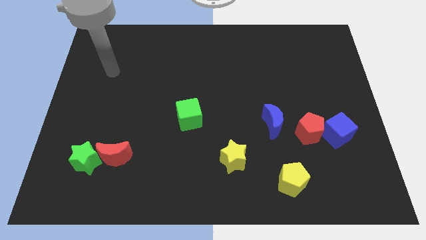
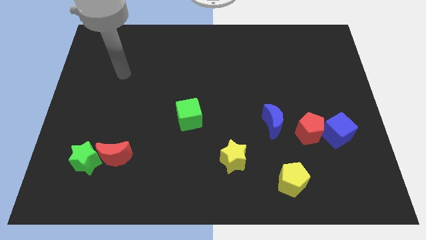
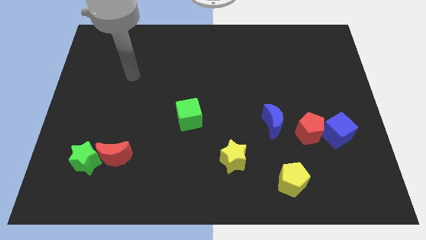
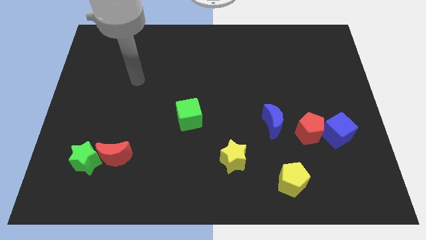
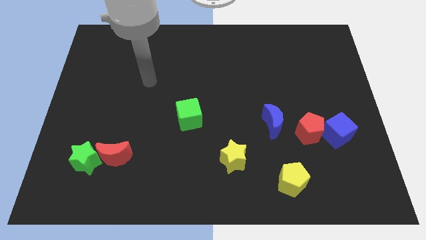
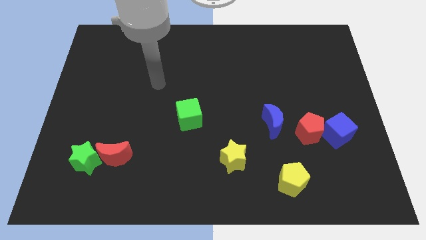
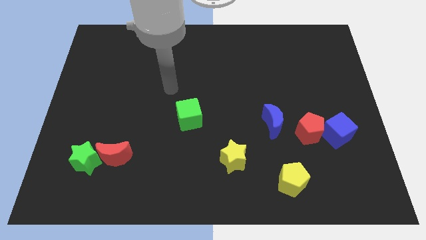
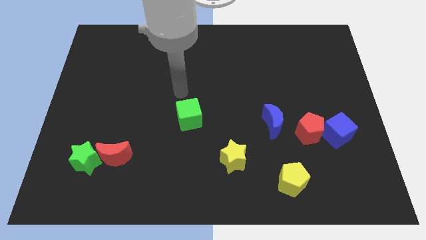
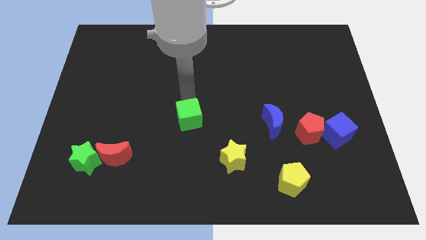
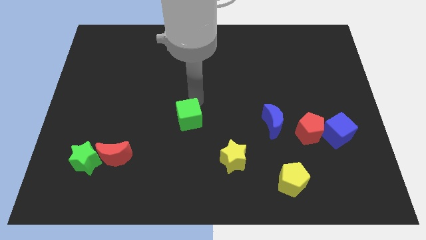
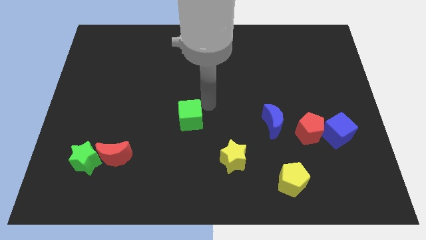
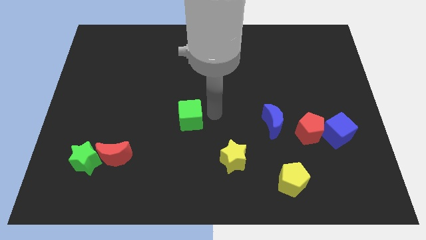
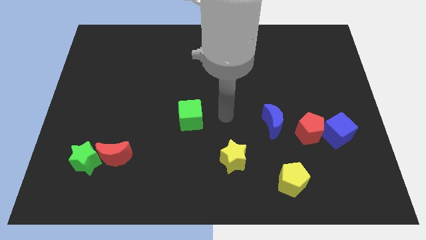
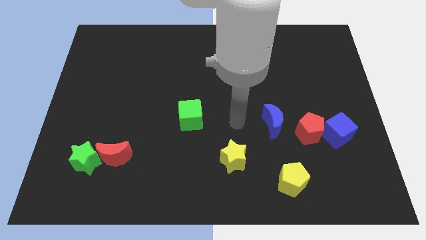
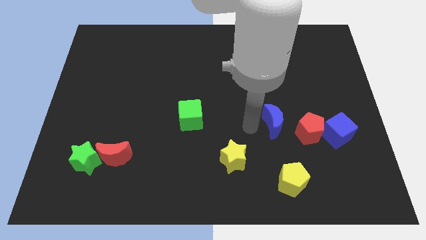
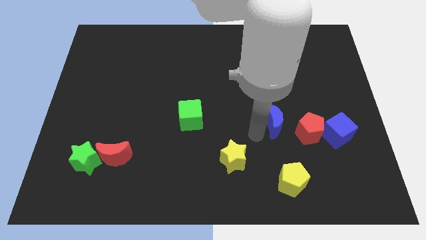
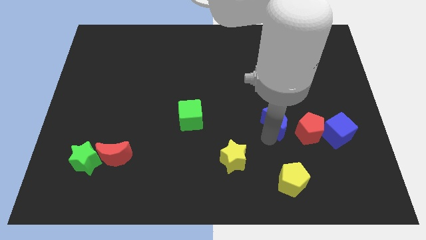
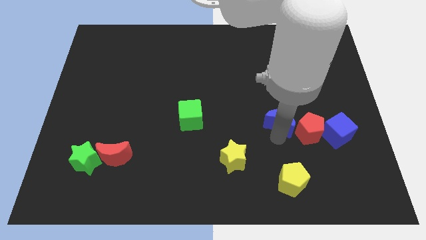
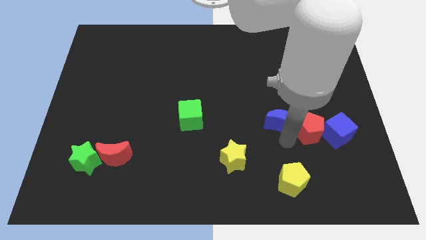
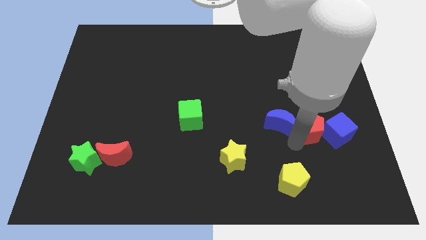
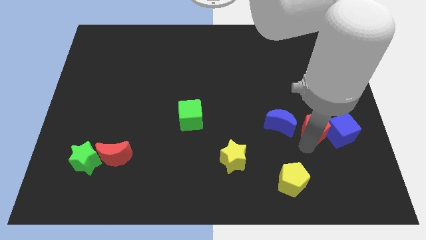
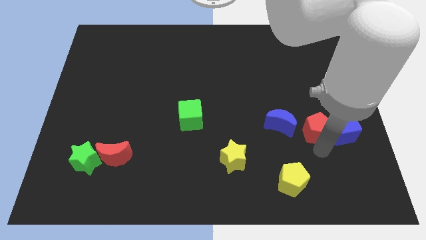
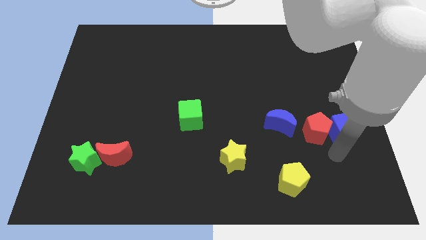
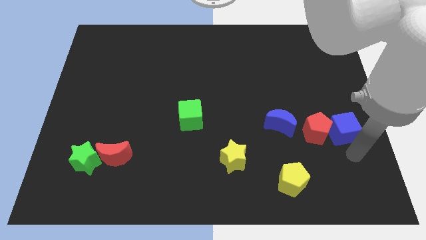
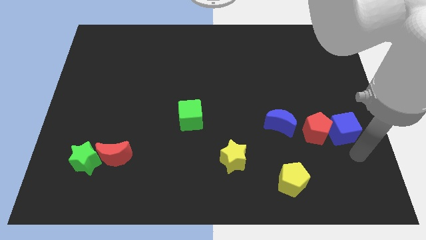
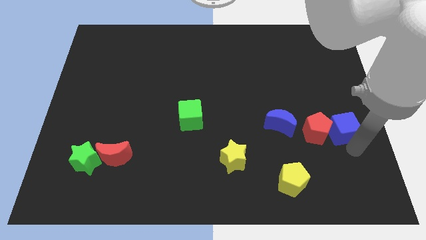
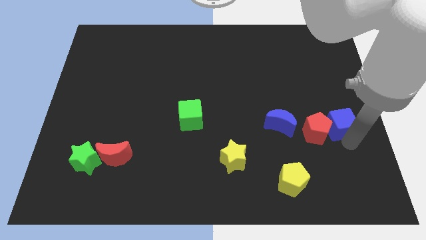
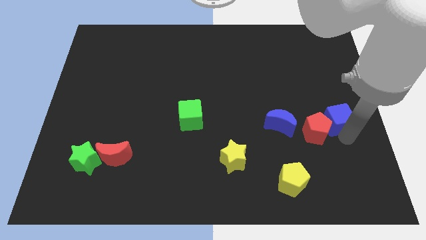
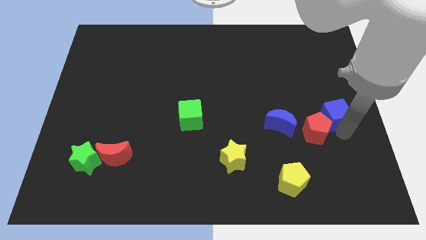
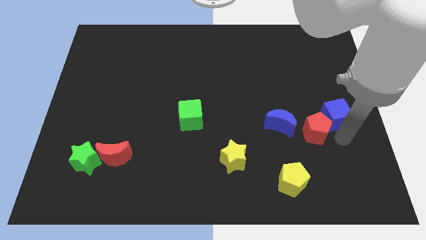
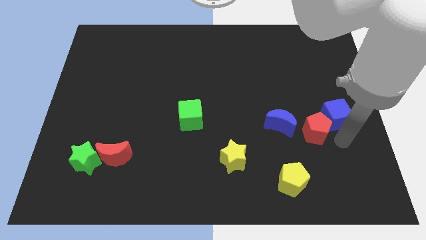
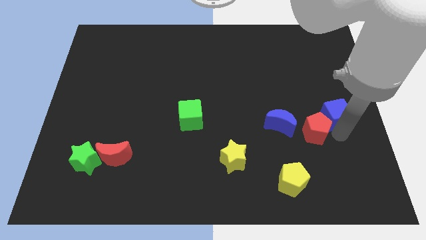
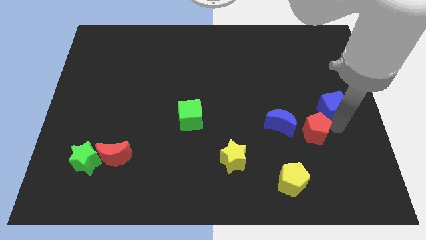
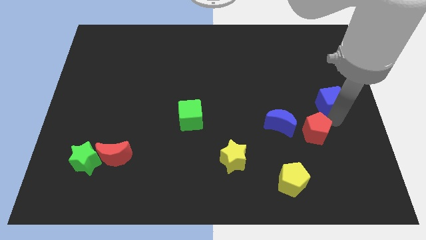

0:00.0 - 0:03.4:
slightly push the blue cube upwards

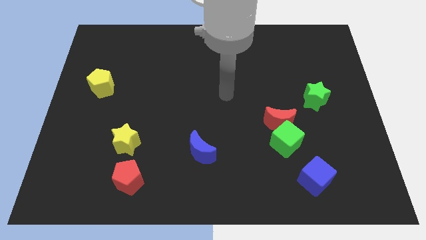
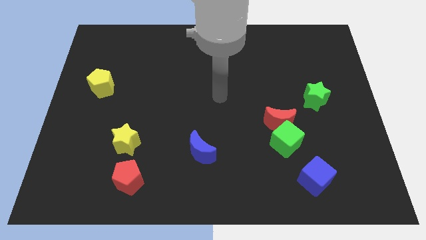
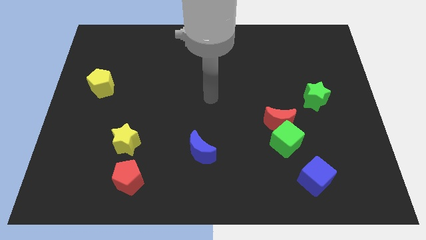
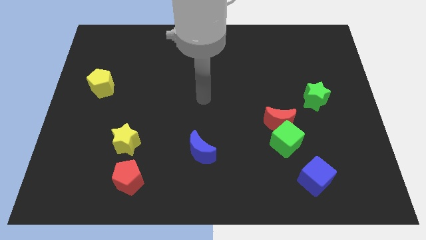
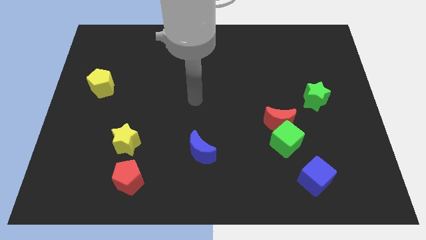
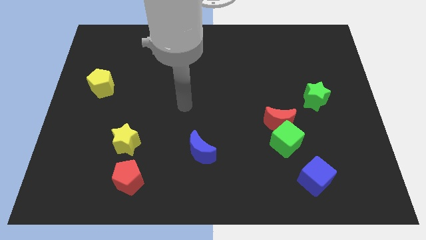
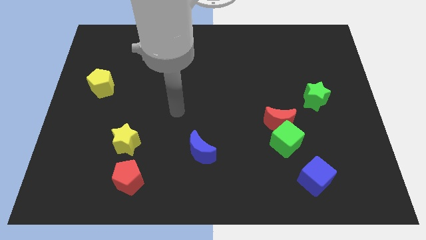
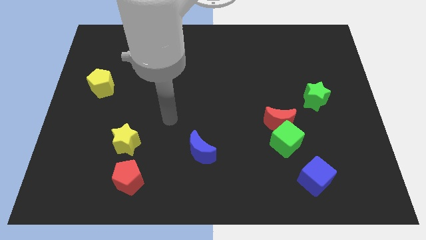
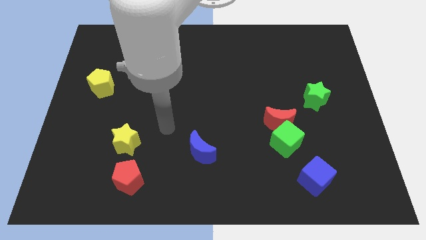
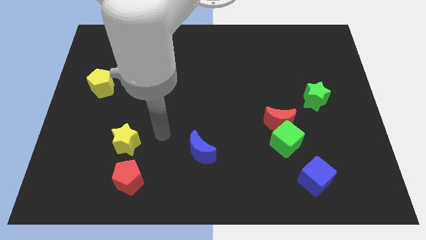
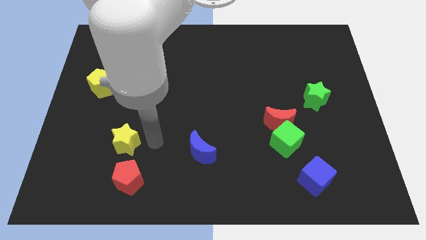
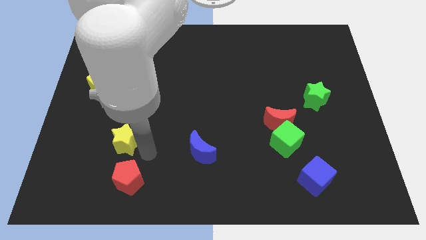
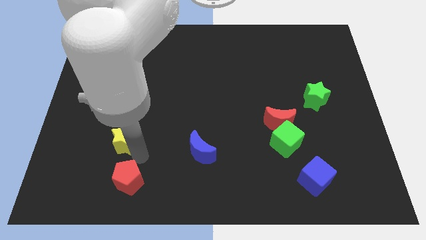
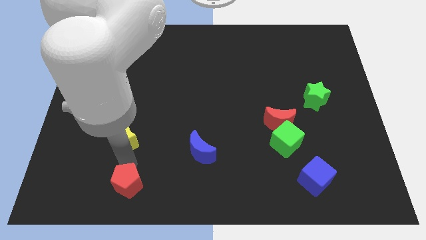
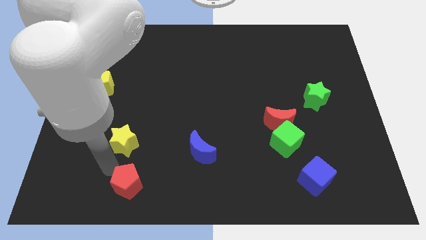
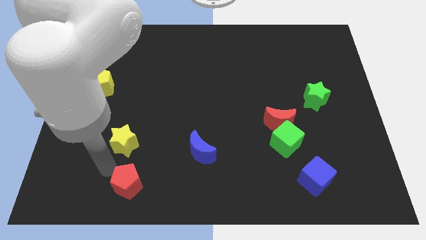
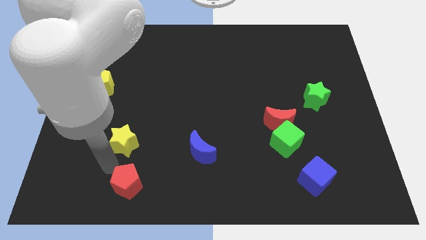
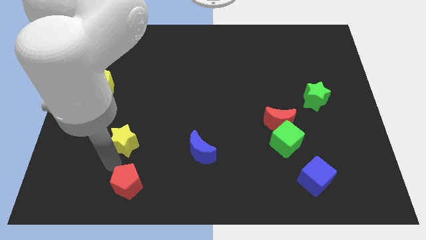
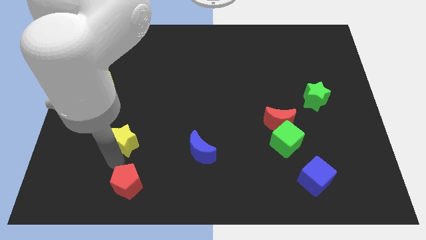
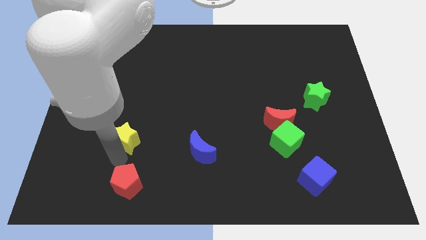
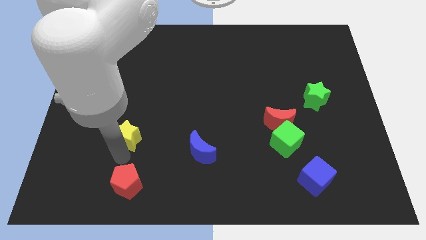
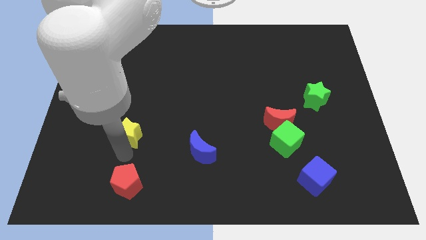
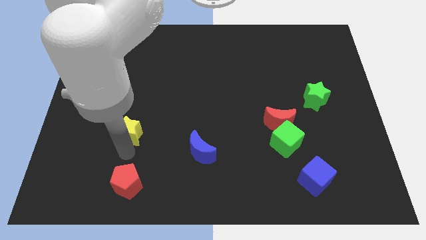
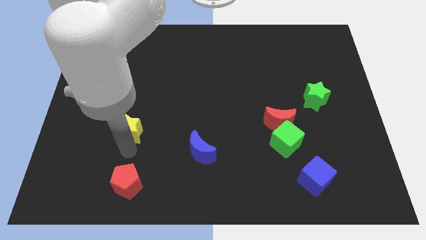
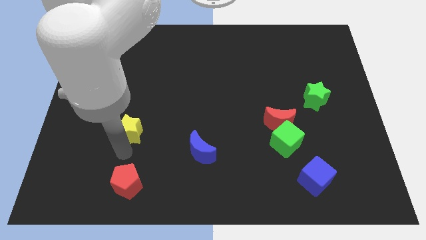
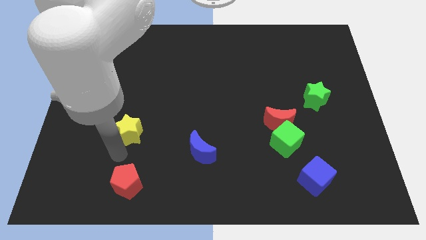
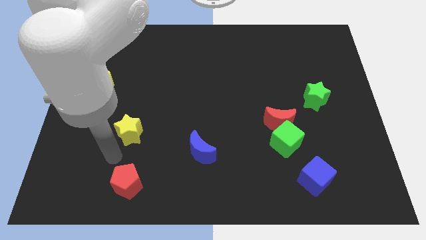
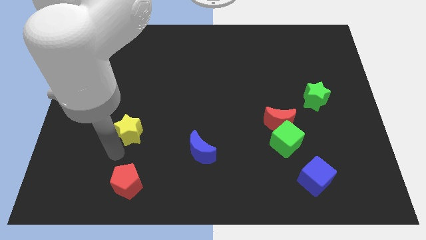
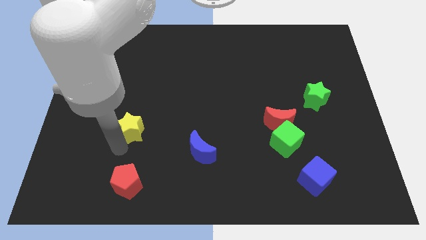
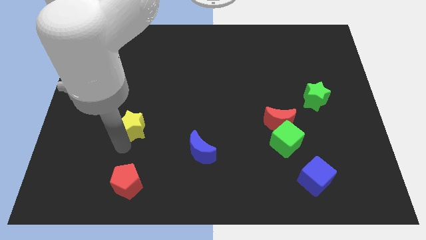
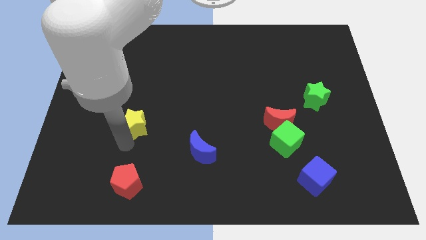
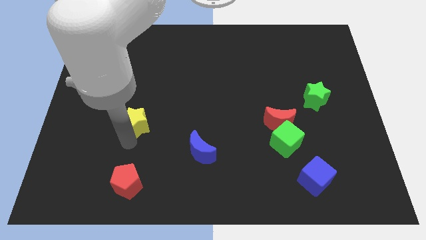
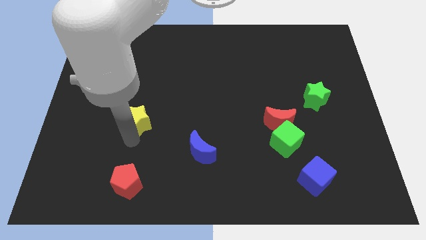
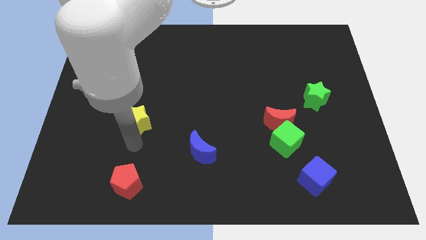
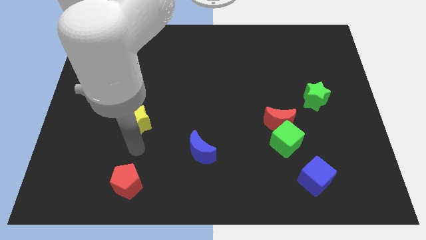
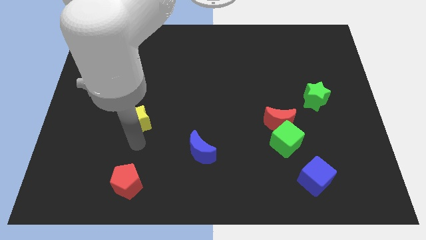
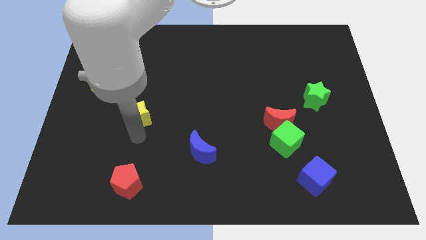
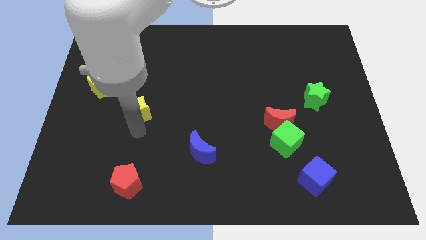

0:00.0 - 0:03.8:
push the yellow star somewhat upwards

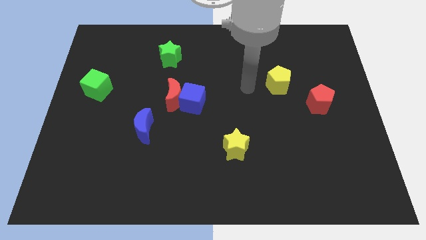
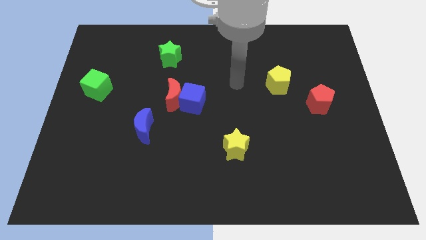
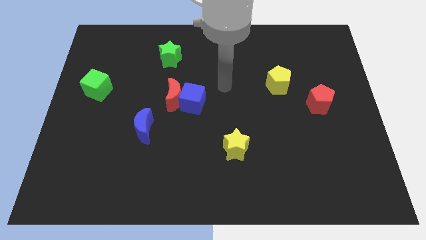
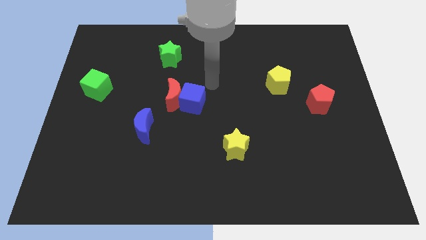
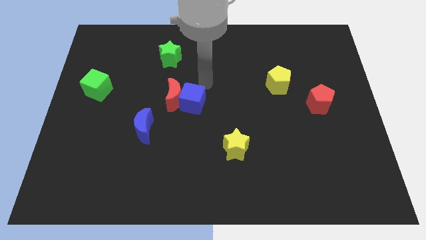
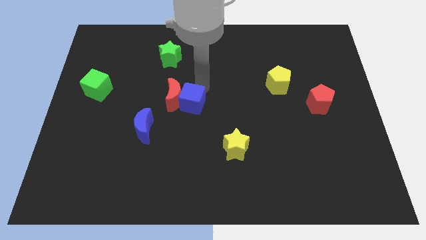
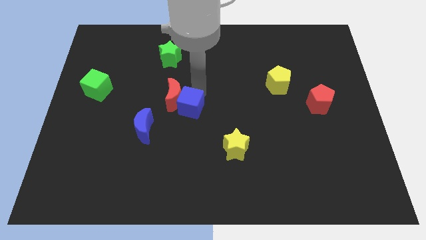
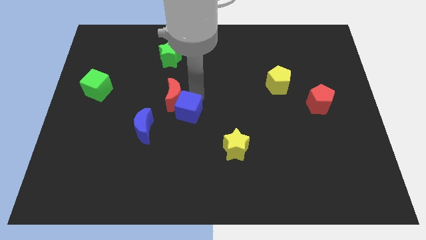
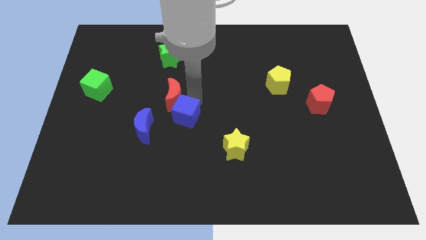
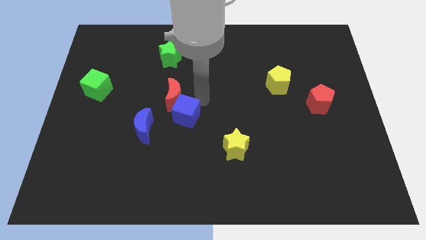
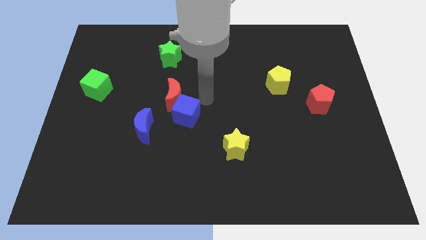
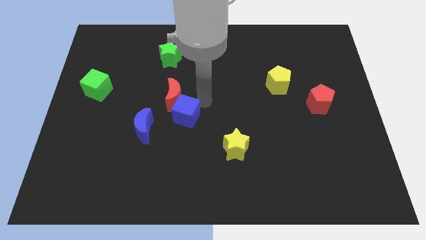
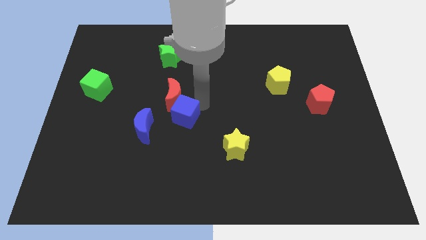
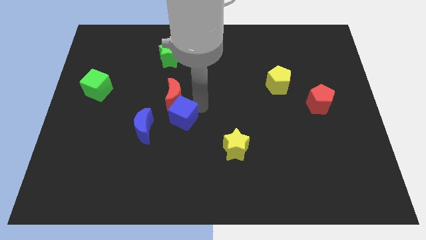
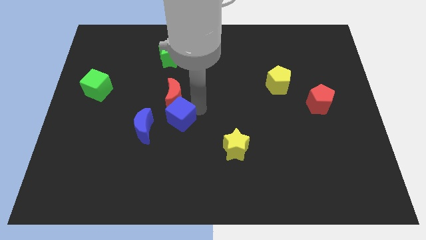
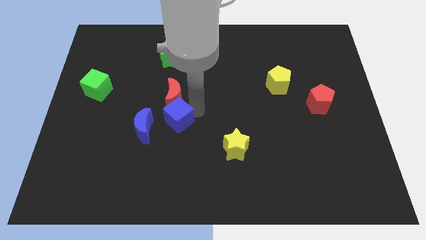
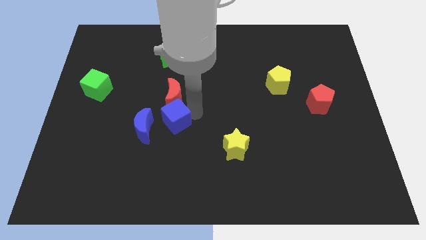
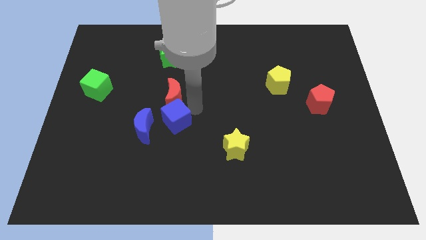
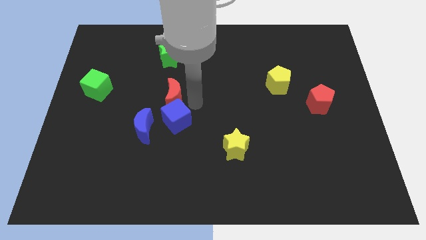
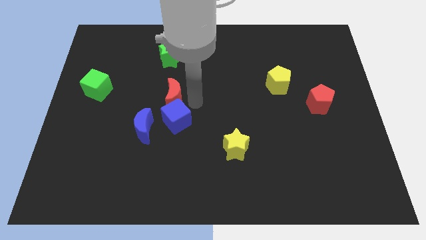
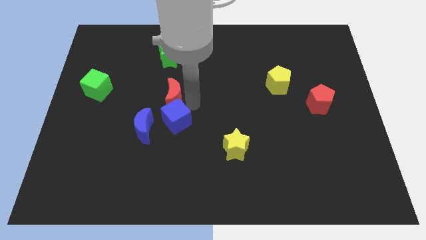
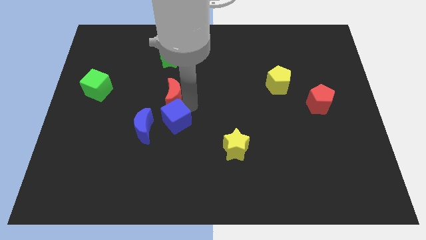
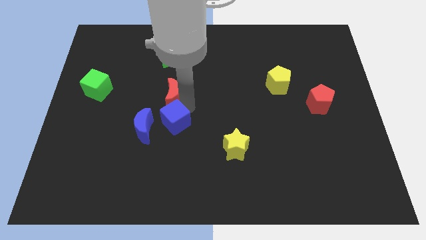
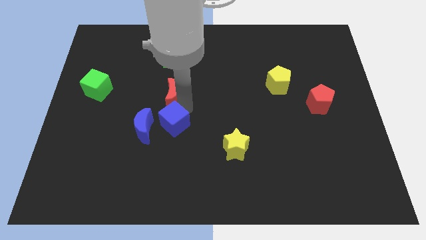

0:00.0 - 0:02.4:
slightly slide the blue cube diagonally downwards and left
